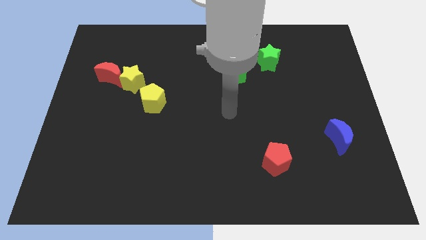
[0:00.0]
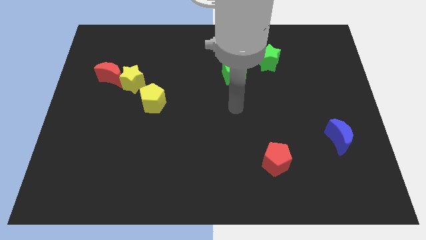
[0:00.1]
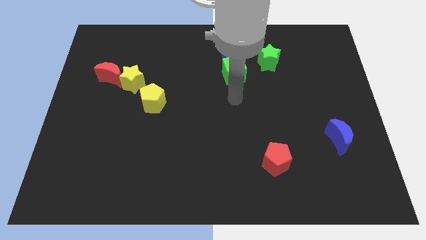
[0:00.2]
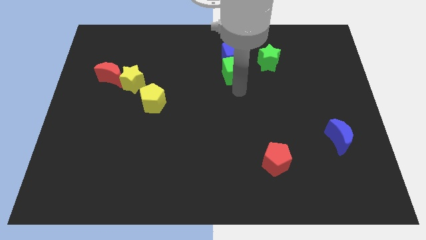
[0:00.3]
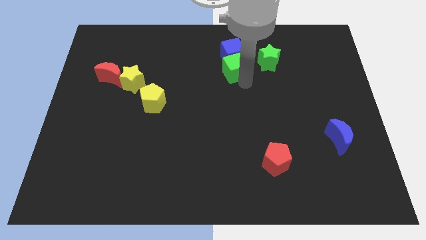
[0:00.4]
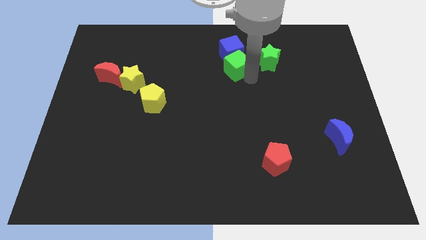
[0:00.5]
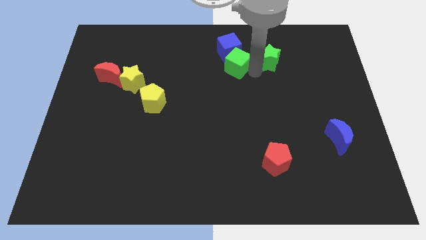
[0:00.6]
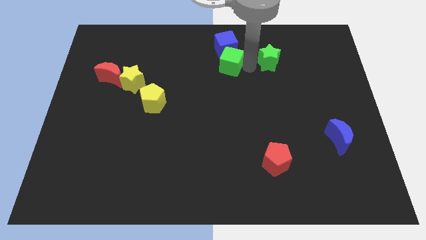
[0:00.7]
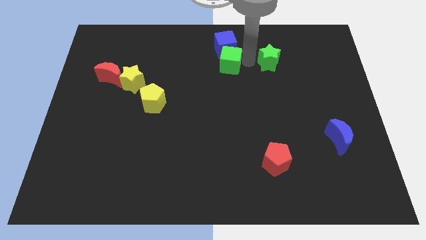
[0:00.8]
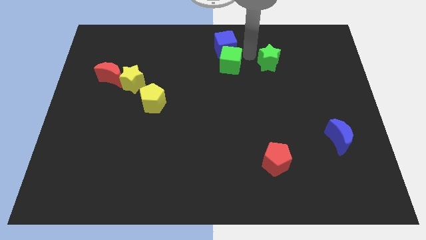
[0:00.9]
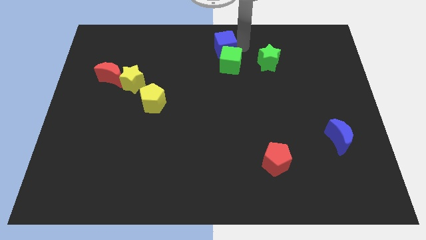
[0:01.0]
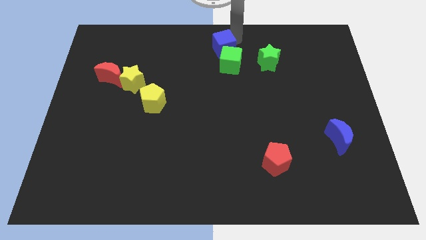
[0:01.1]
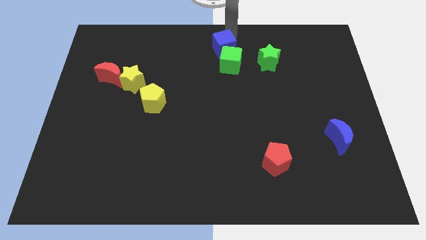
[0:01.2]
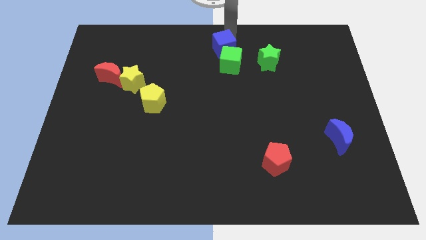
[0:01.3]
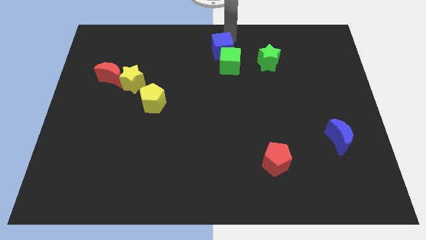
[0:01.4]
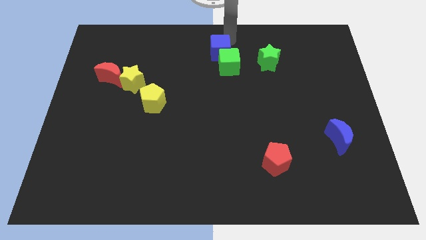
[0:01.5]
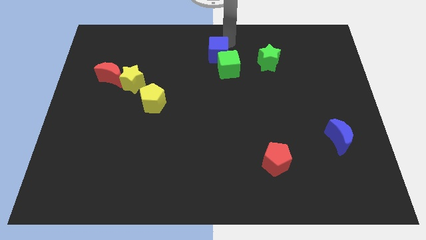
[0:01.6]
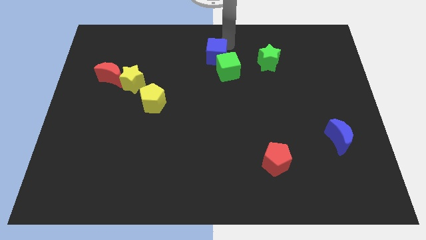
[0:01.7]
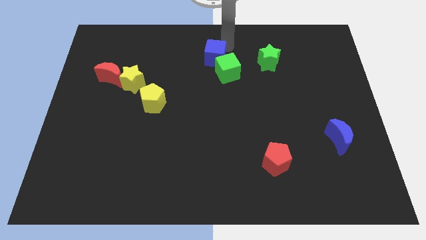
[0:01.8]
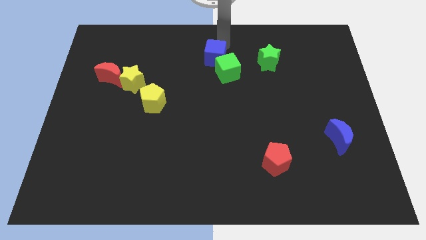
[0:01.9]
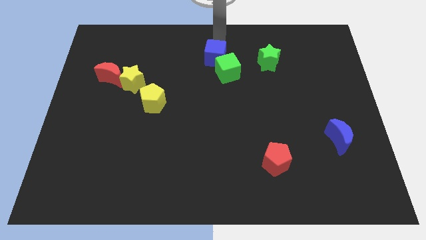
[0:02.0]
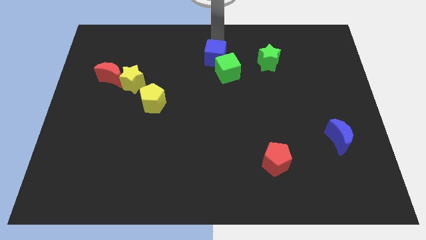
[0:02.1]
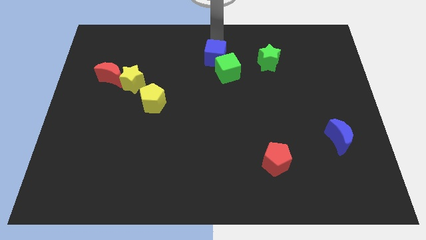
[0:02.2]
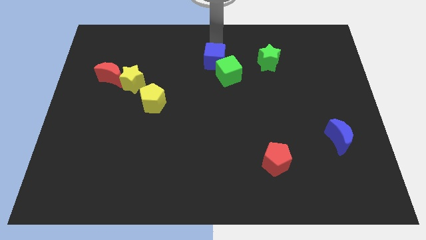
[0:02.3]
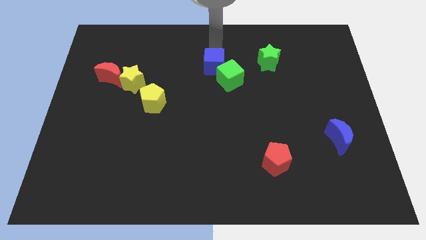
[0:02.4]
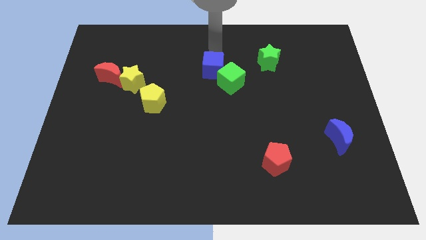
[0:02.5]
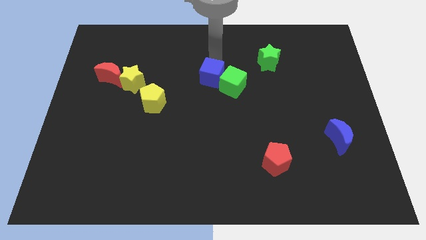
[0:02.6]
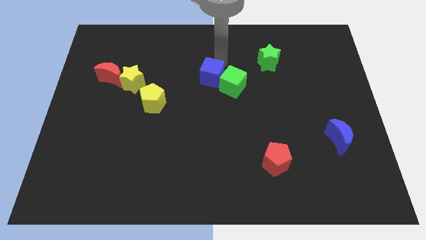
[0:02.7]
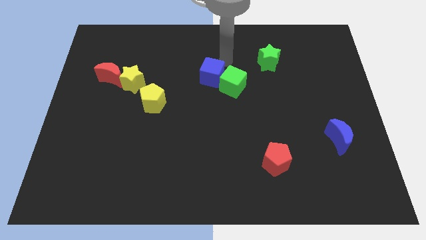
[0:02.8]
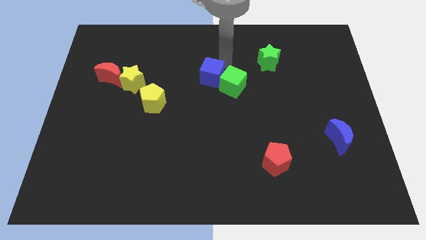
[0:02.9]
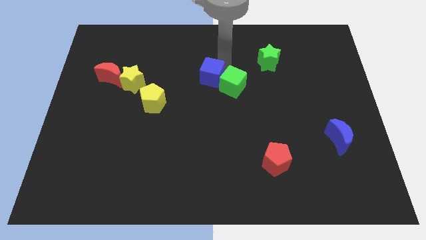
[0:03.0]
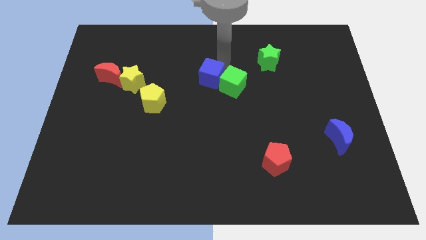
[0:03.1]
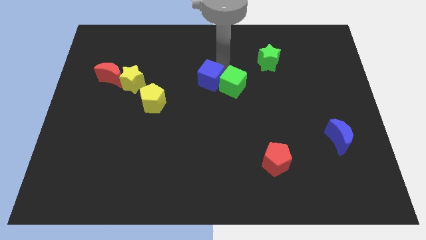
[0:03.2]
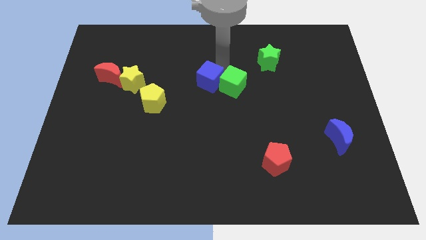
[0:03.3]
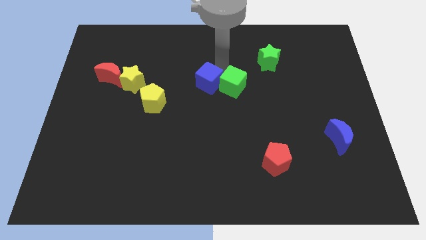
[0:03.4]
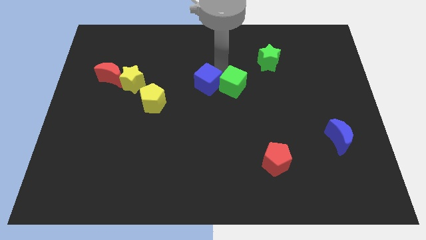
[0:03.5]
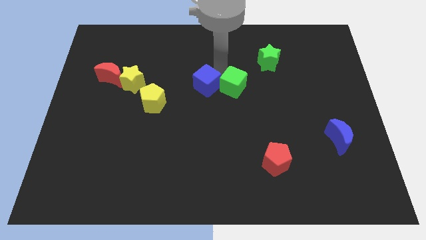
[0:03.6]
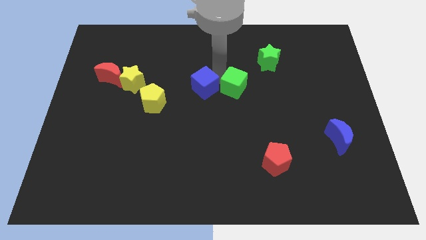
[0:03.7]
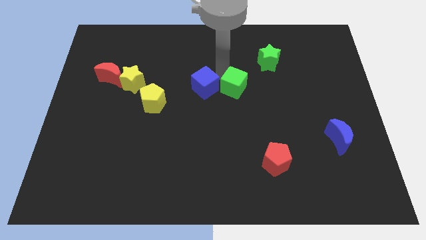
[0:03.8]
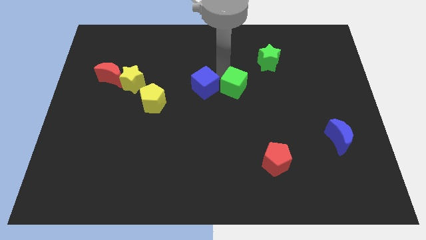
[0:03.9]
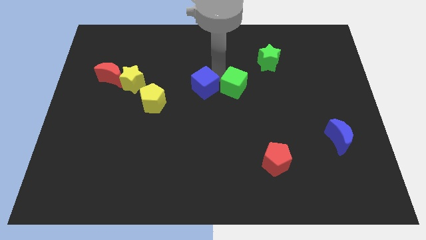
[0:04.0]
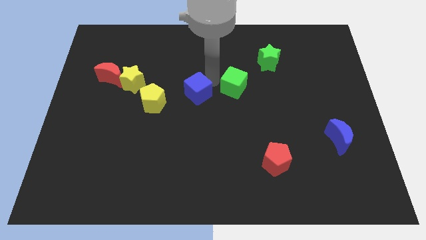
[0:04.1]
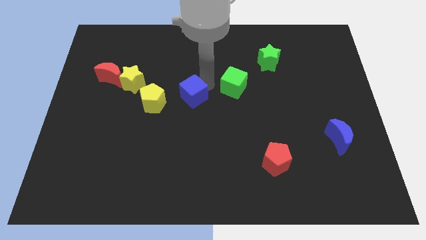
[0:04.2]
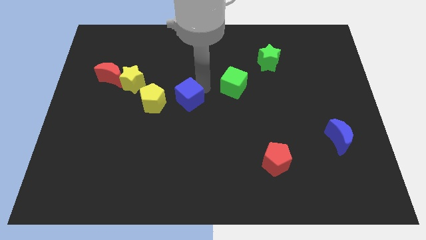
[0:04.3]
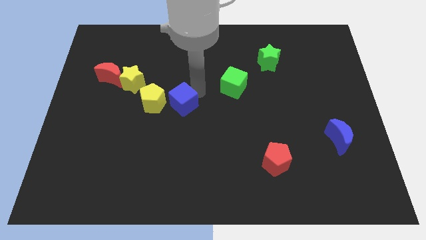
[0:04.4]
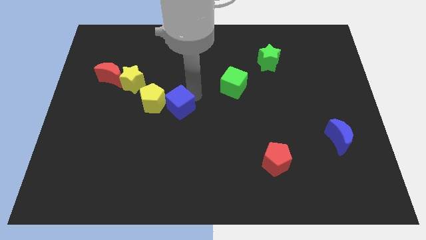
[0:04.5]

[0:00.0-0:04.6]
push the blue cube diagonally downwards and to the left

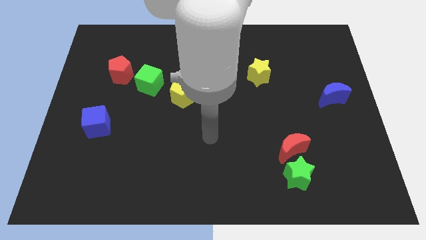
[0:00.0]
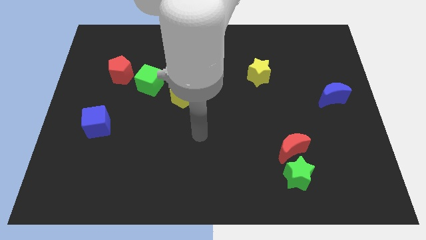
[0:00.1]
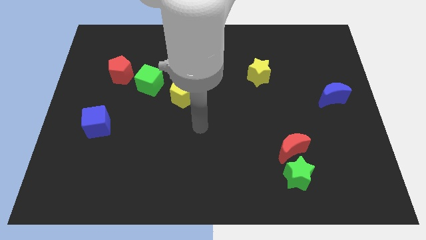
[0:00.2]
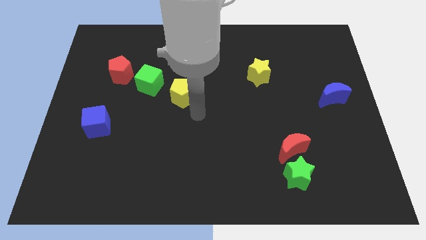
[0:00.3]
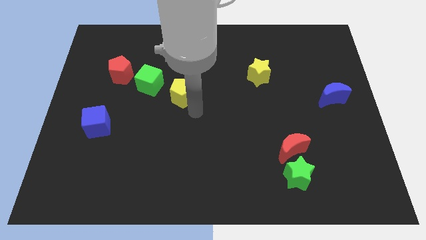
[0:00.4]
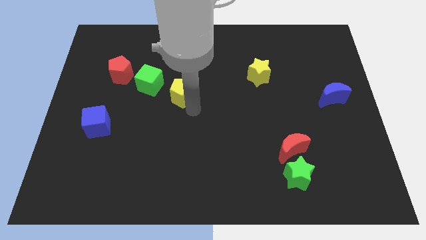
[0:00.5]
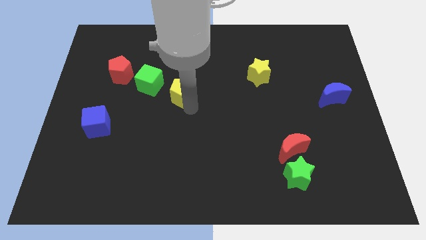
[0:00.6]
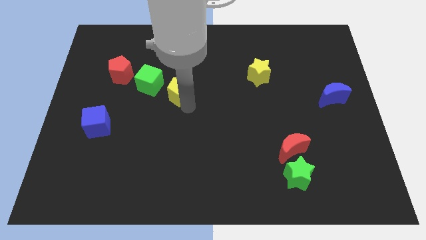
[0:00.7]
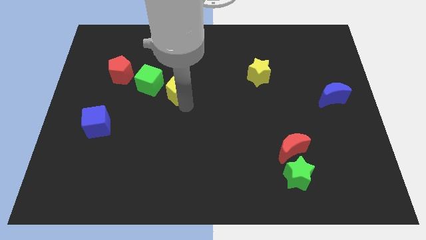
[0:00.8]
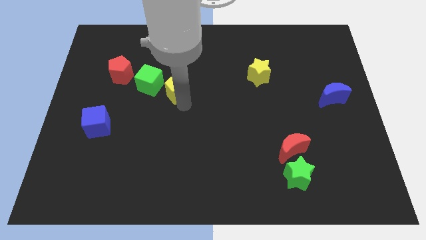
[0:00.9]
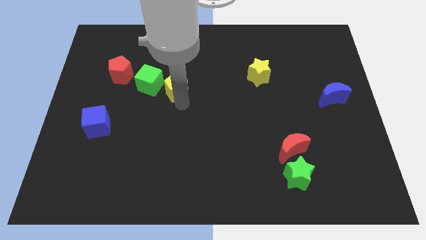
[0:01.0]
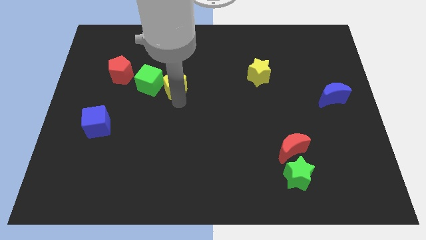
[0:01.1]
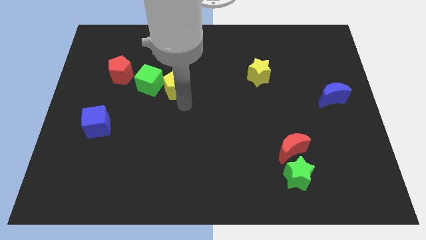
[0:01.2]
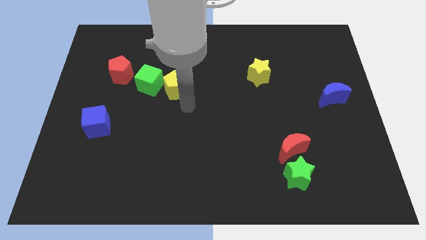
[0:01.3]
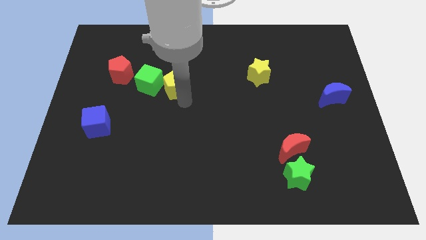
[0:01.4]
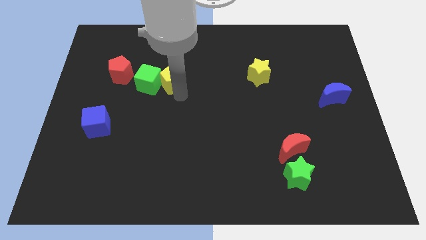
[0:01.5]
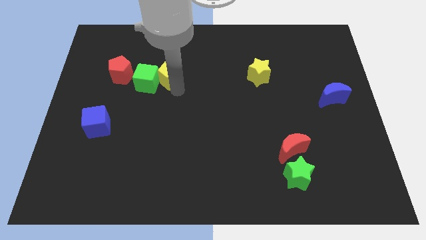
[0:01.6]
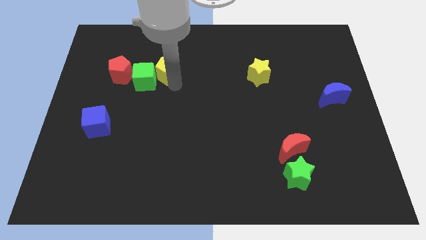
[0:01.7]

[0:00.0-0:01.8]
slightly slide the yellow pentagon up and then left

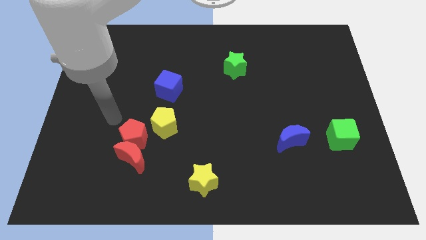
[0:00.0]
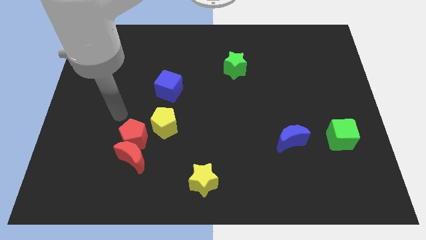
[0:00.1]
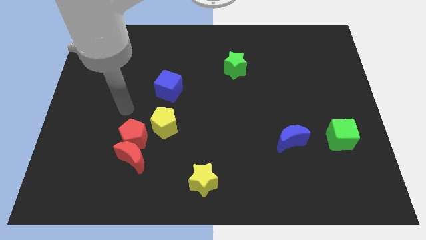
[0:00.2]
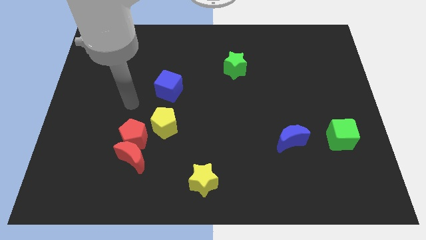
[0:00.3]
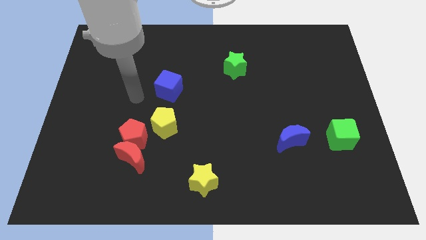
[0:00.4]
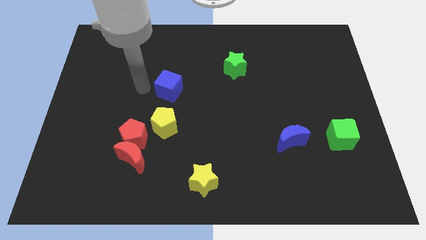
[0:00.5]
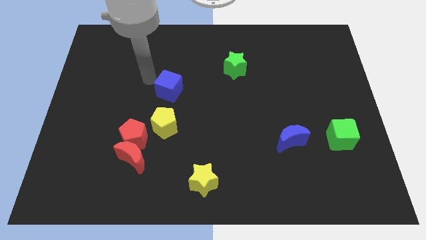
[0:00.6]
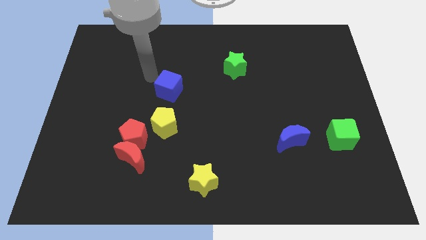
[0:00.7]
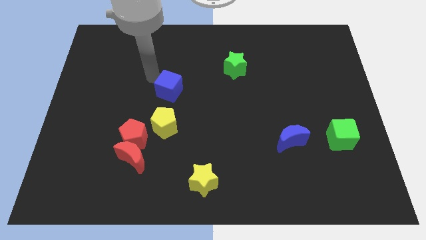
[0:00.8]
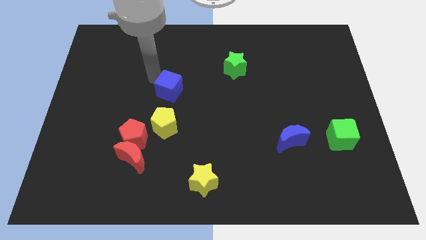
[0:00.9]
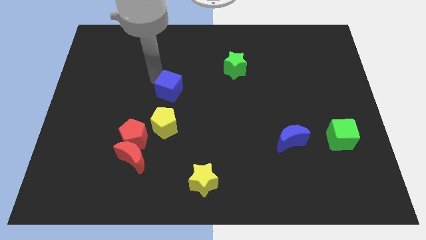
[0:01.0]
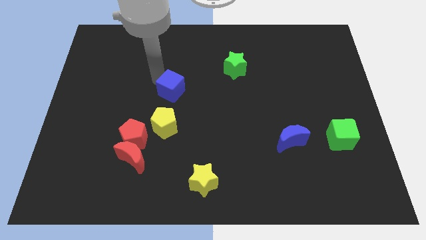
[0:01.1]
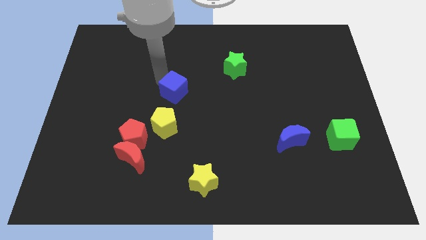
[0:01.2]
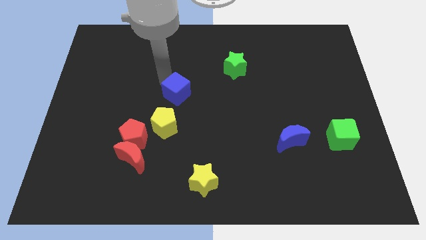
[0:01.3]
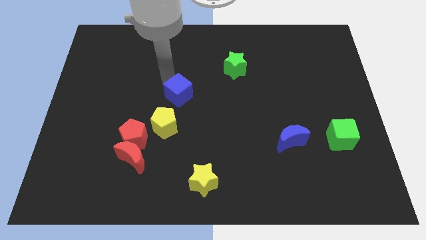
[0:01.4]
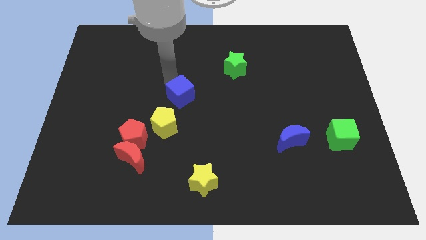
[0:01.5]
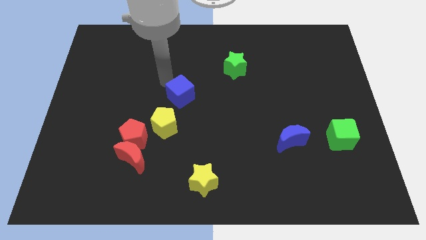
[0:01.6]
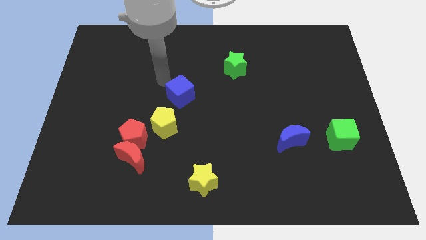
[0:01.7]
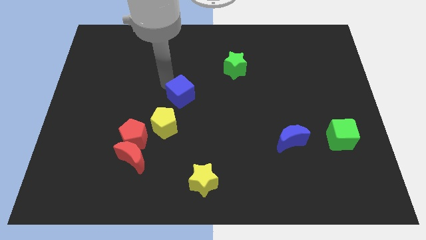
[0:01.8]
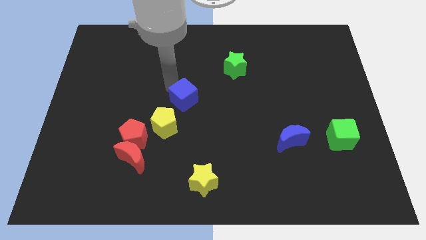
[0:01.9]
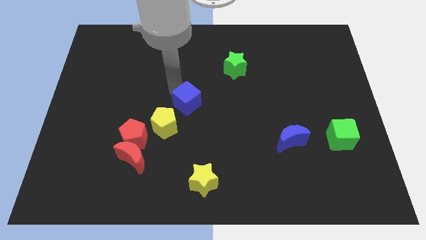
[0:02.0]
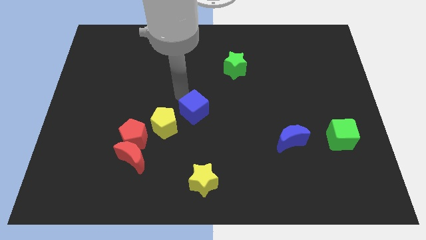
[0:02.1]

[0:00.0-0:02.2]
push the blue cube a little bit downwards and then to the right
